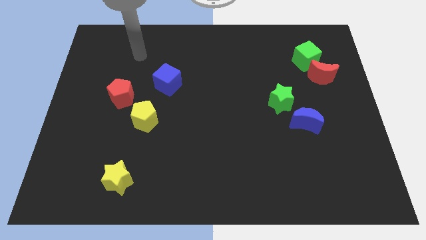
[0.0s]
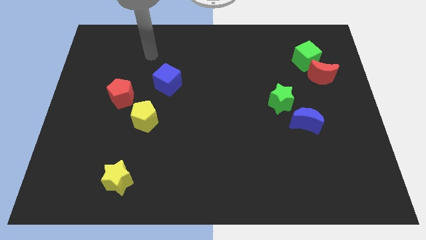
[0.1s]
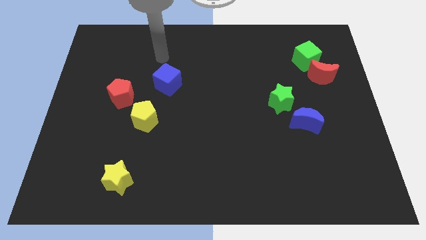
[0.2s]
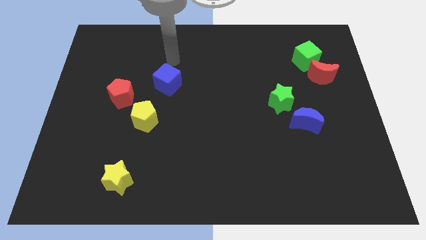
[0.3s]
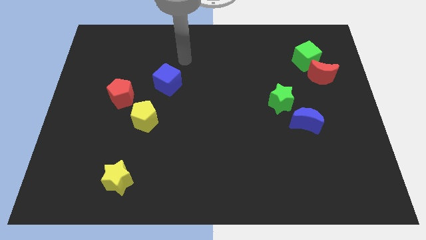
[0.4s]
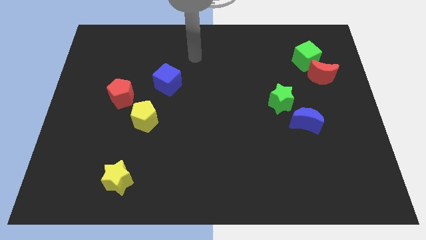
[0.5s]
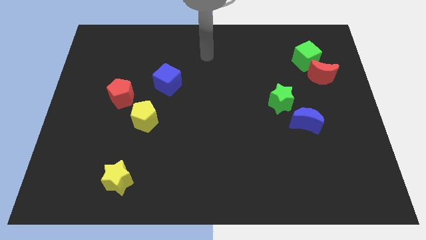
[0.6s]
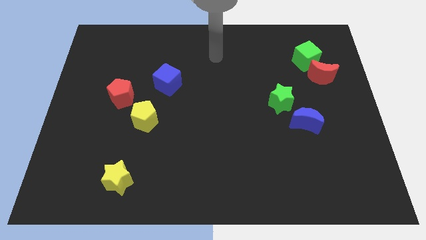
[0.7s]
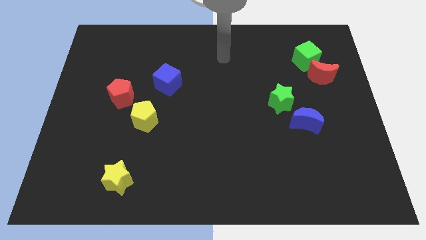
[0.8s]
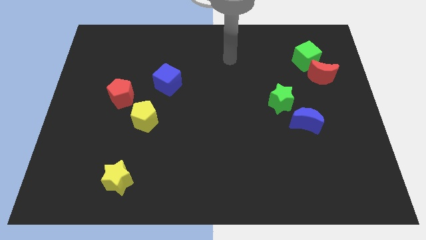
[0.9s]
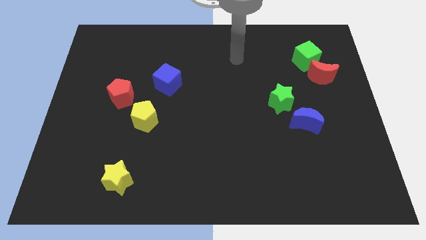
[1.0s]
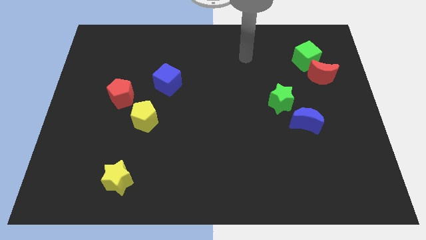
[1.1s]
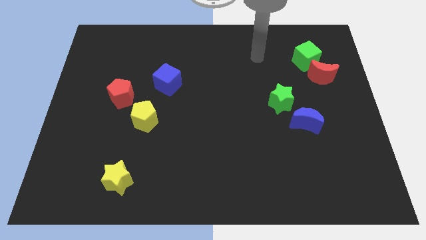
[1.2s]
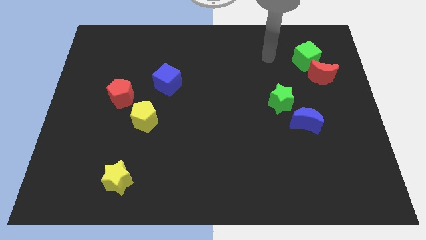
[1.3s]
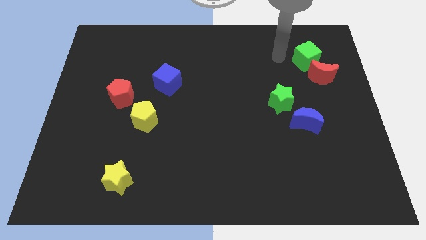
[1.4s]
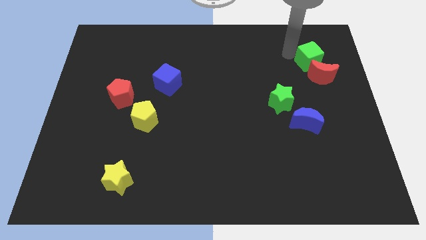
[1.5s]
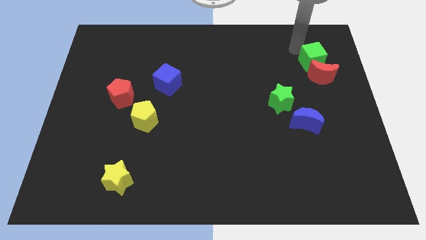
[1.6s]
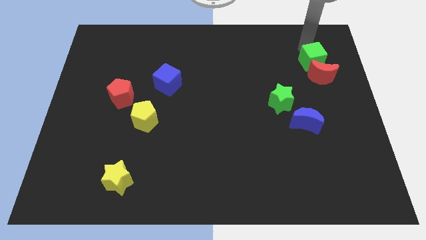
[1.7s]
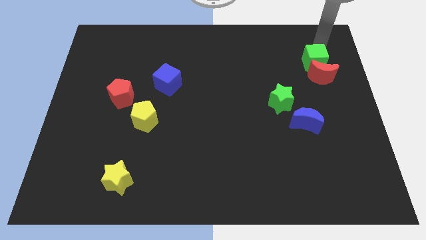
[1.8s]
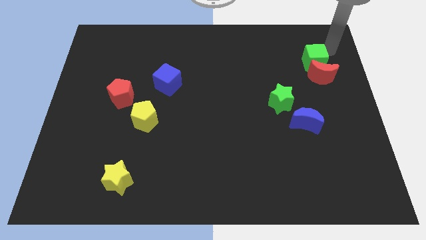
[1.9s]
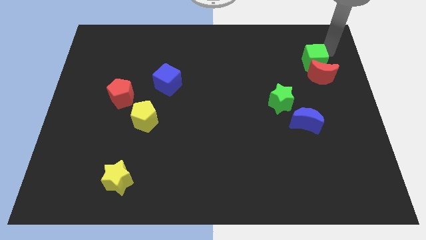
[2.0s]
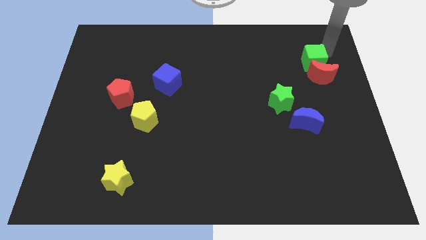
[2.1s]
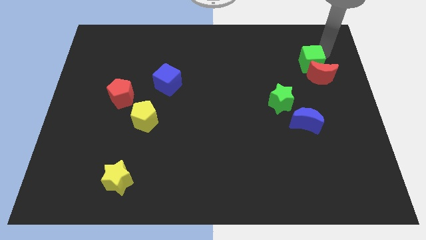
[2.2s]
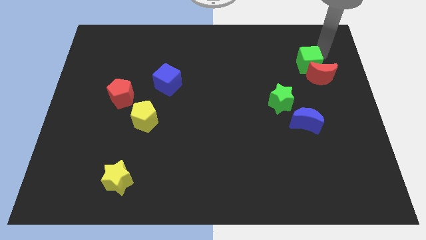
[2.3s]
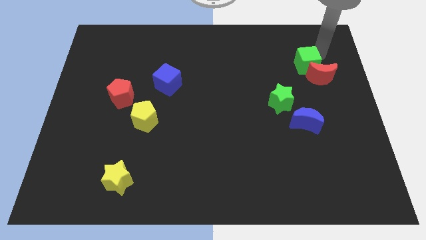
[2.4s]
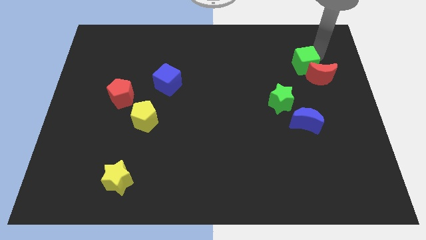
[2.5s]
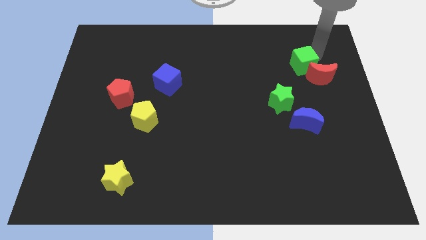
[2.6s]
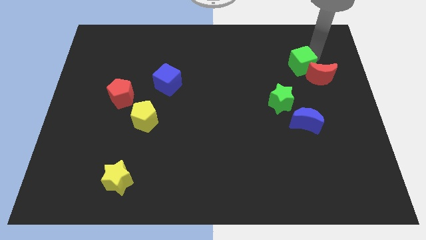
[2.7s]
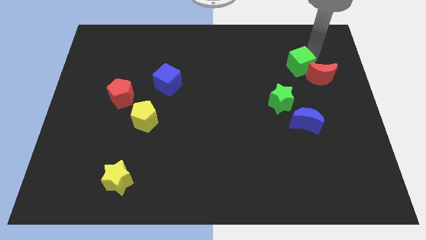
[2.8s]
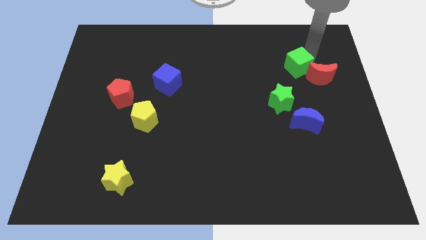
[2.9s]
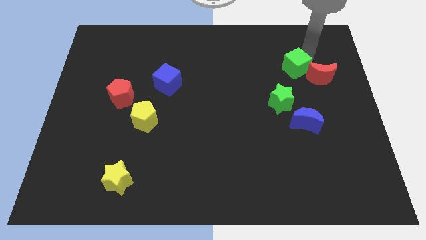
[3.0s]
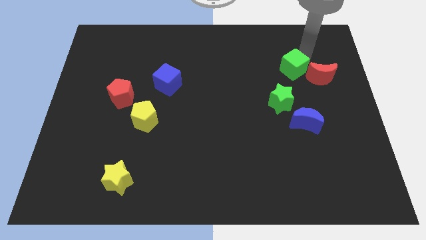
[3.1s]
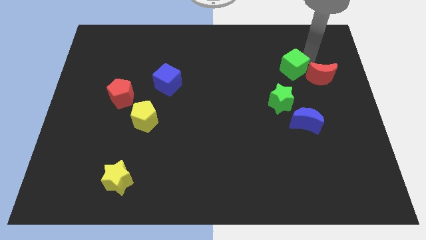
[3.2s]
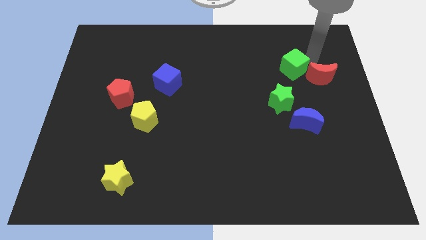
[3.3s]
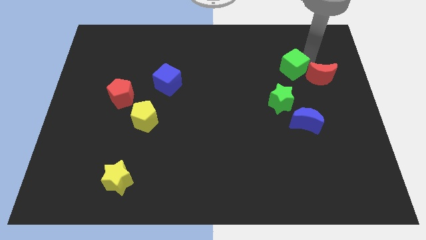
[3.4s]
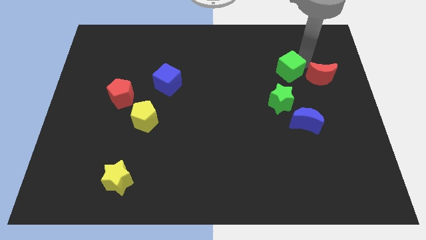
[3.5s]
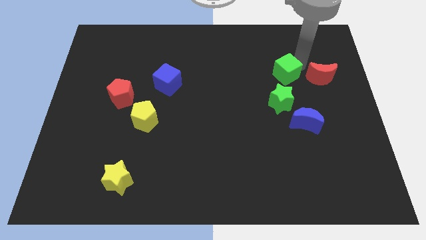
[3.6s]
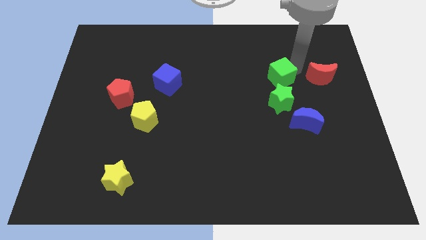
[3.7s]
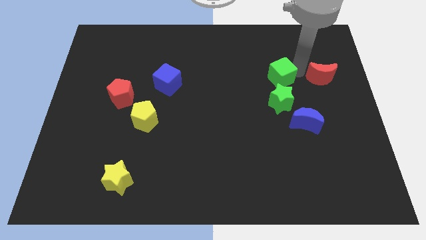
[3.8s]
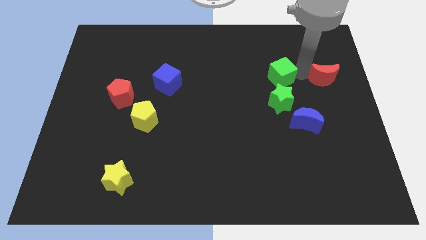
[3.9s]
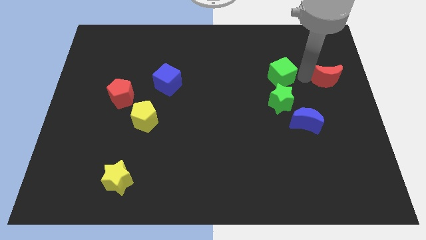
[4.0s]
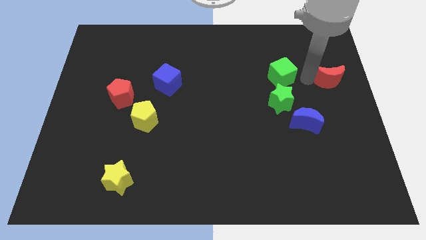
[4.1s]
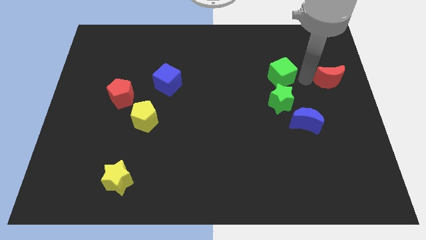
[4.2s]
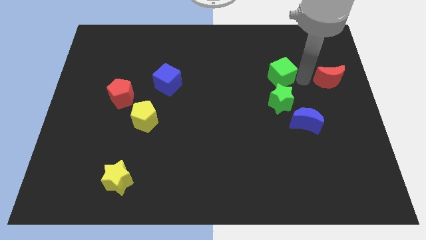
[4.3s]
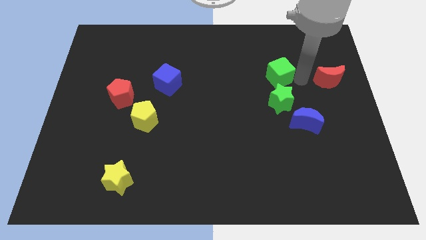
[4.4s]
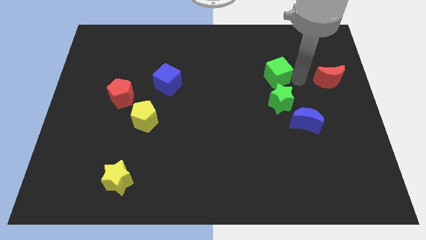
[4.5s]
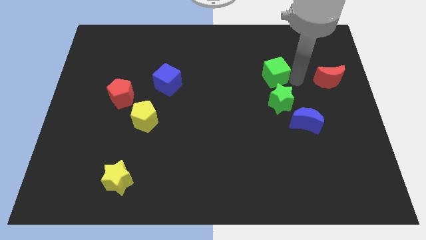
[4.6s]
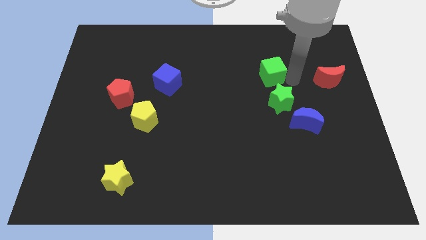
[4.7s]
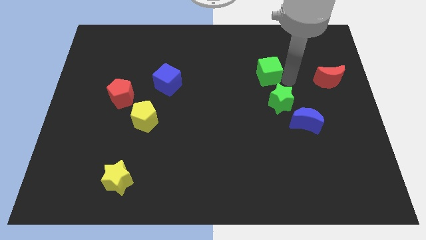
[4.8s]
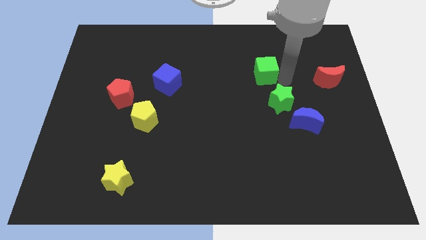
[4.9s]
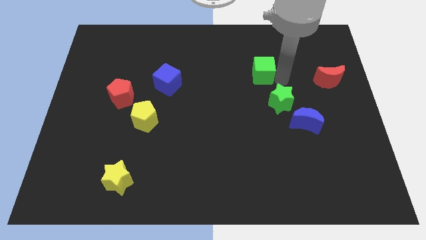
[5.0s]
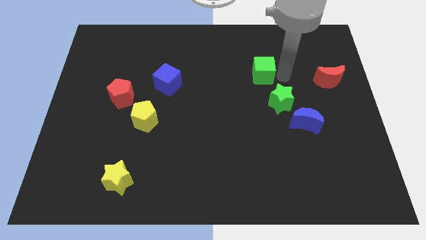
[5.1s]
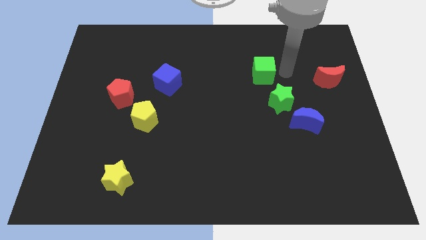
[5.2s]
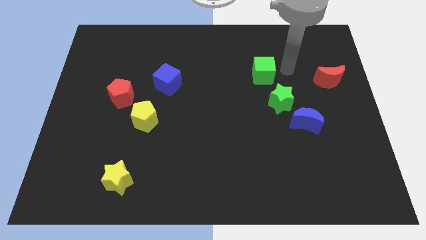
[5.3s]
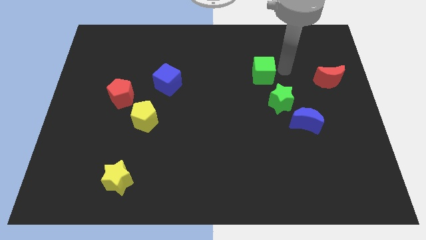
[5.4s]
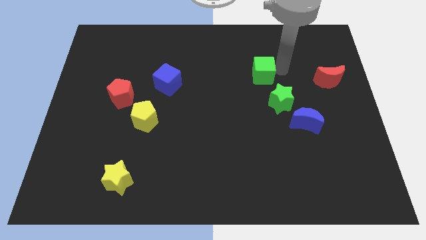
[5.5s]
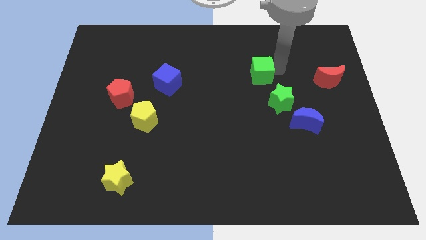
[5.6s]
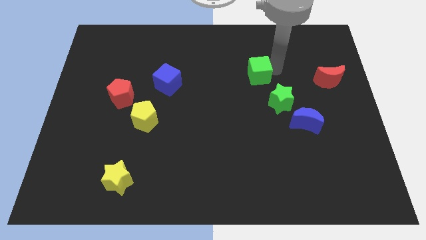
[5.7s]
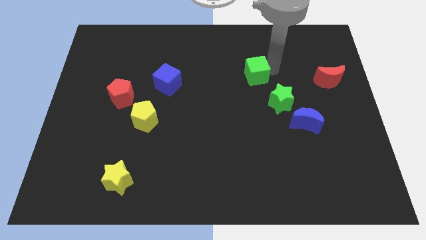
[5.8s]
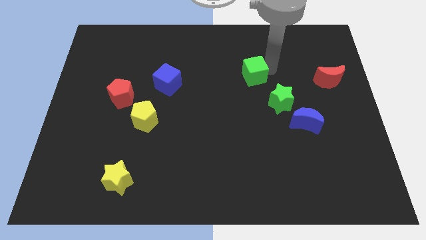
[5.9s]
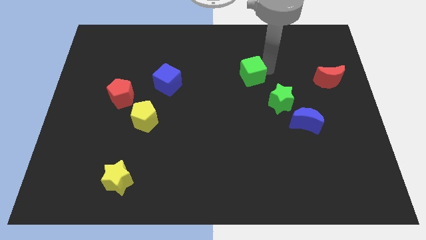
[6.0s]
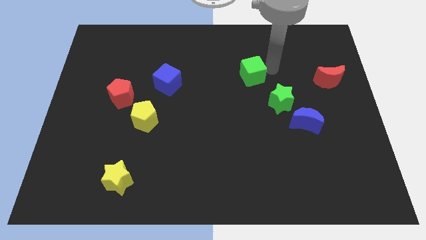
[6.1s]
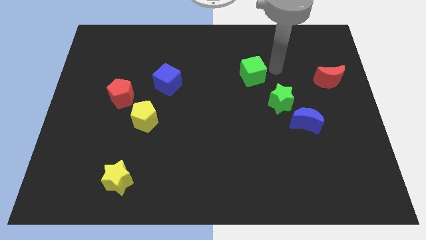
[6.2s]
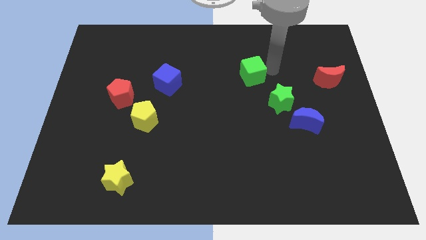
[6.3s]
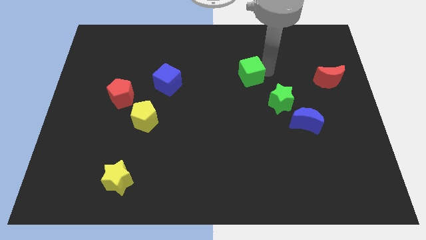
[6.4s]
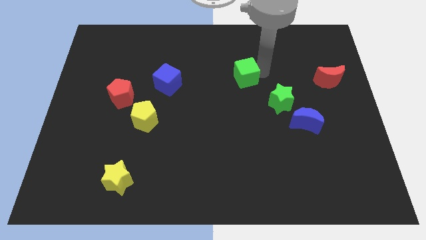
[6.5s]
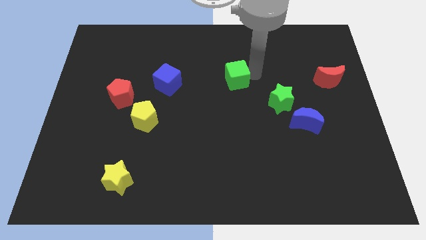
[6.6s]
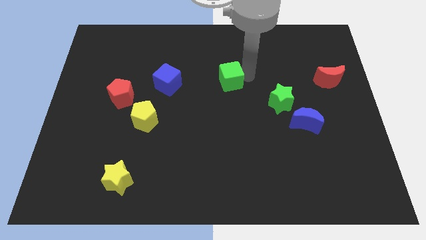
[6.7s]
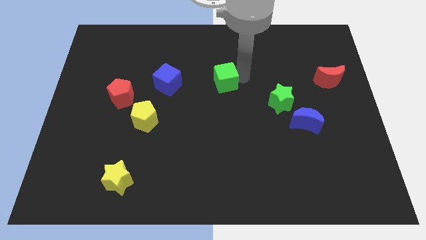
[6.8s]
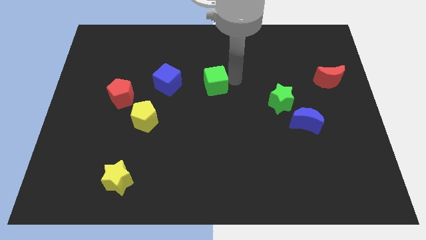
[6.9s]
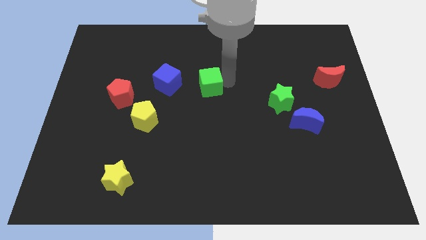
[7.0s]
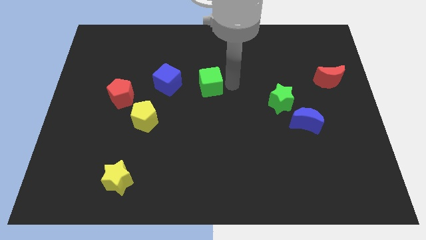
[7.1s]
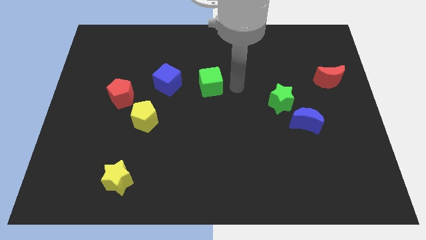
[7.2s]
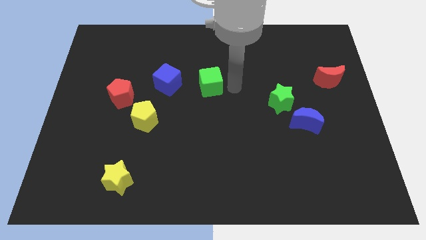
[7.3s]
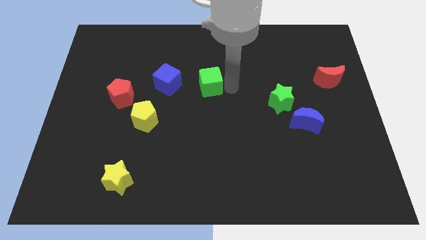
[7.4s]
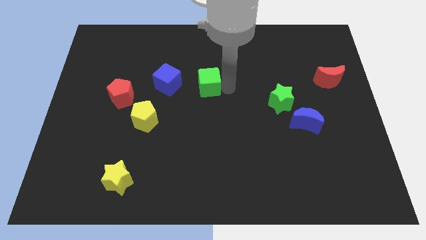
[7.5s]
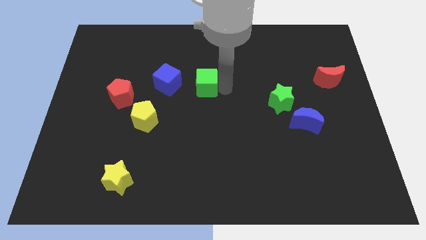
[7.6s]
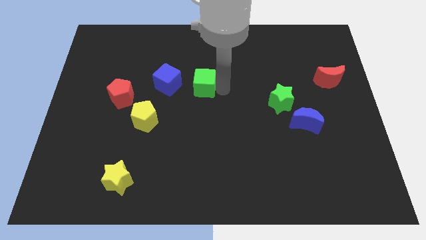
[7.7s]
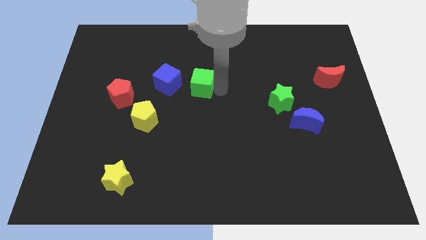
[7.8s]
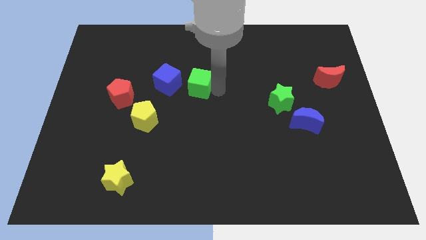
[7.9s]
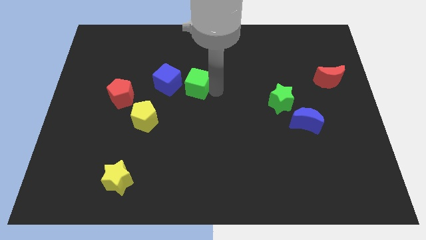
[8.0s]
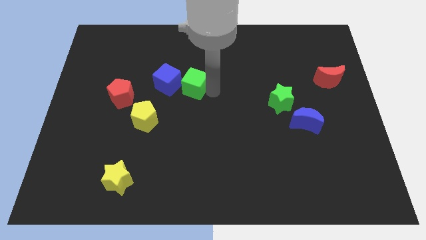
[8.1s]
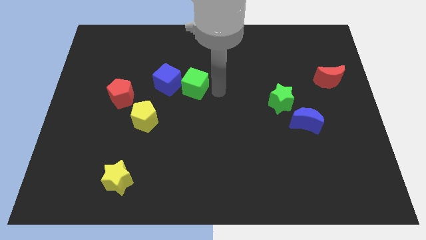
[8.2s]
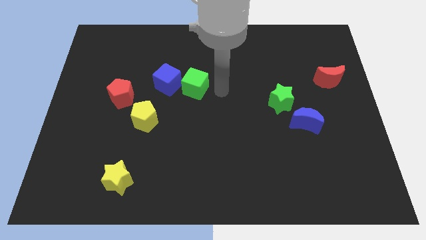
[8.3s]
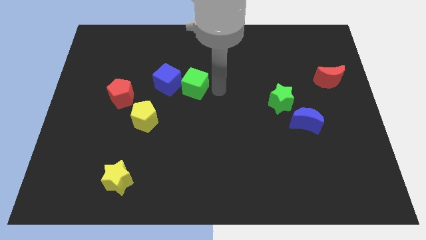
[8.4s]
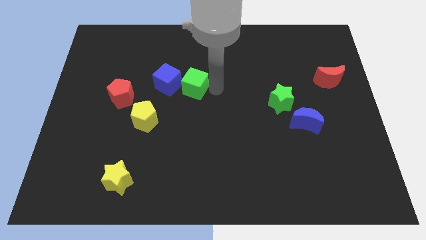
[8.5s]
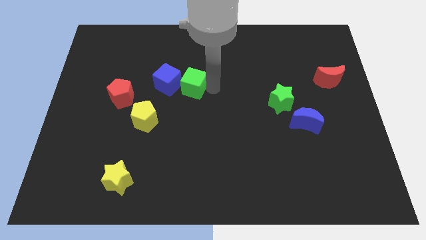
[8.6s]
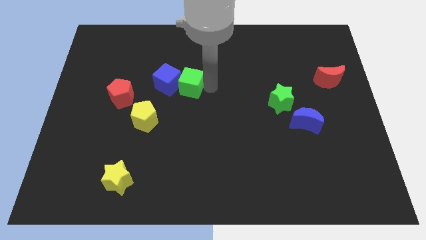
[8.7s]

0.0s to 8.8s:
slide the green cube to the blue cube
